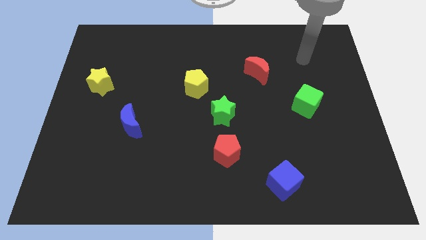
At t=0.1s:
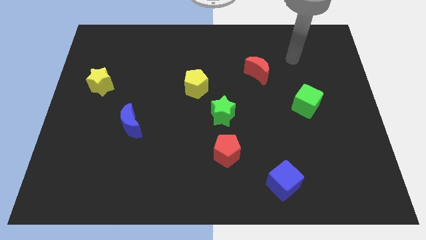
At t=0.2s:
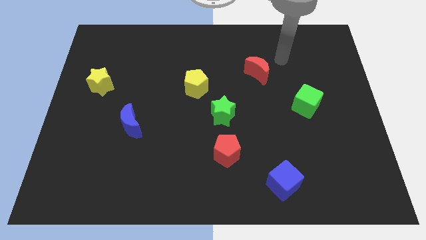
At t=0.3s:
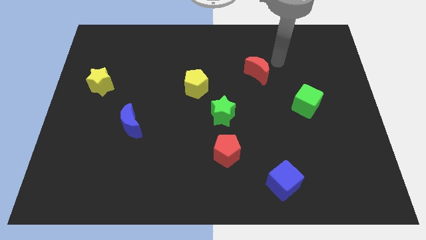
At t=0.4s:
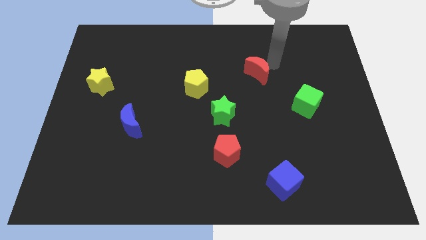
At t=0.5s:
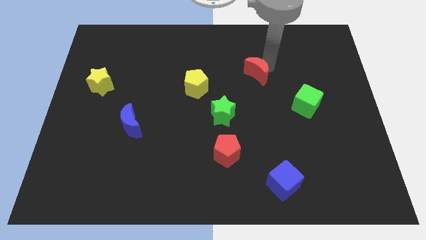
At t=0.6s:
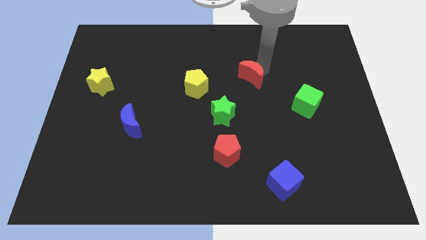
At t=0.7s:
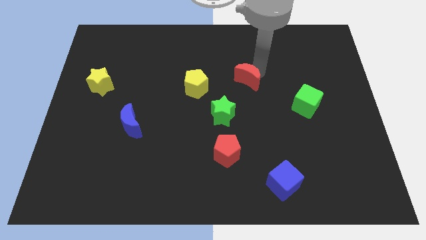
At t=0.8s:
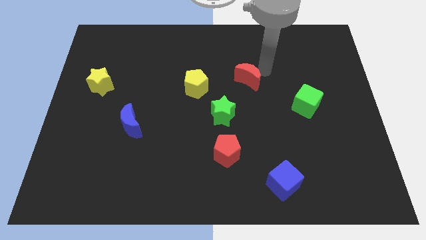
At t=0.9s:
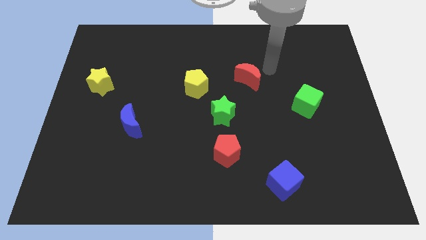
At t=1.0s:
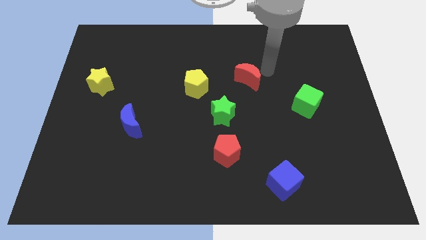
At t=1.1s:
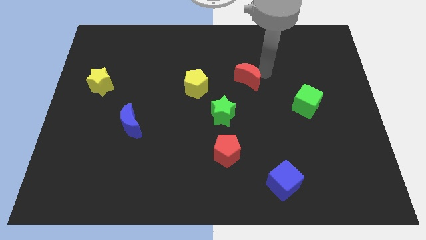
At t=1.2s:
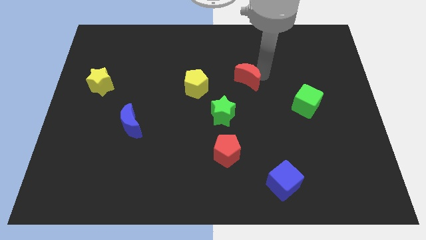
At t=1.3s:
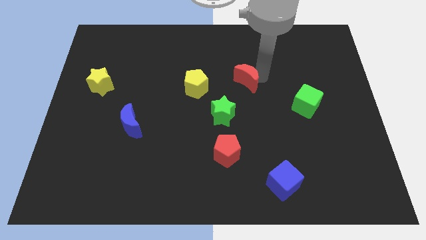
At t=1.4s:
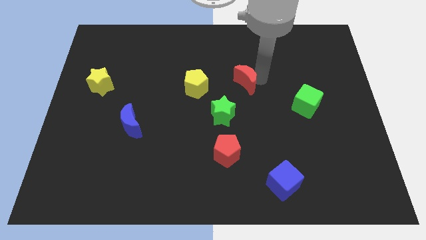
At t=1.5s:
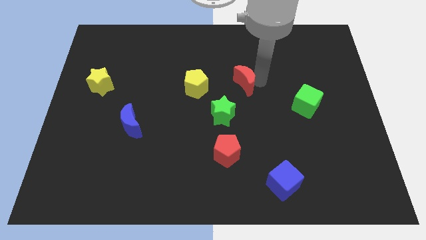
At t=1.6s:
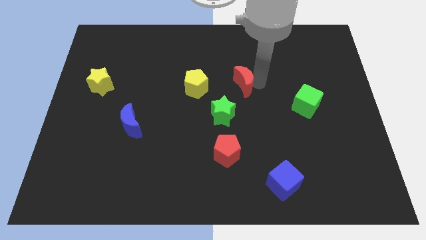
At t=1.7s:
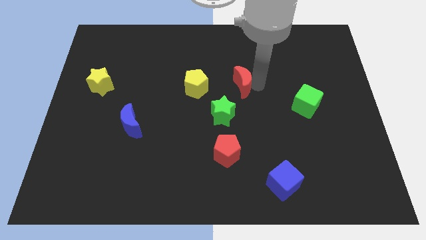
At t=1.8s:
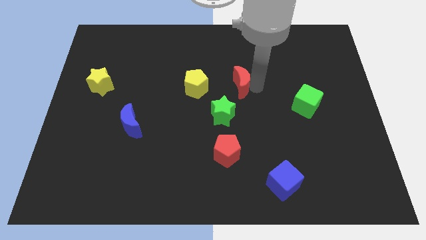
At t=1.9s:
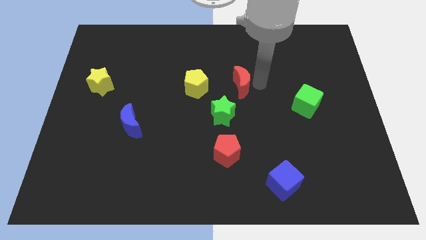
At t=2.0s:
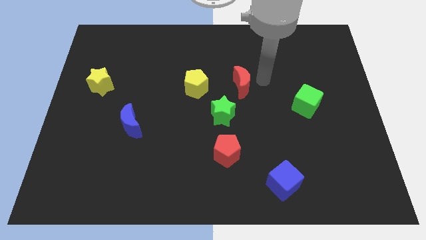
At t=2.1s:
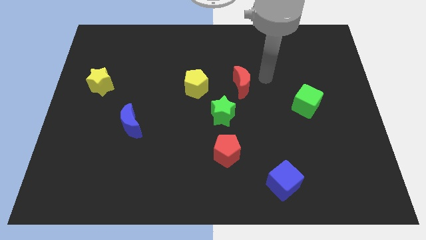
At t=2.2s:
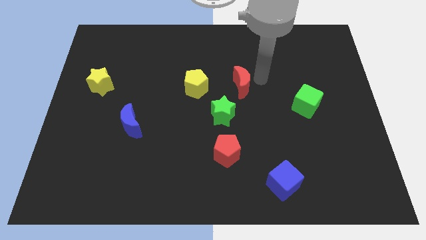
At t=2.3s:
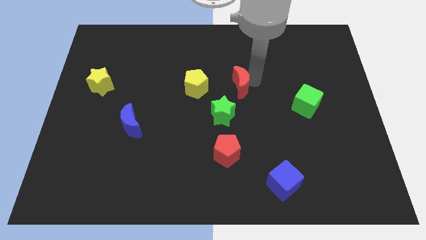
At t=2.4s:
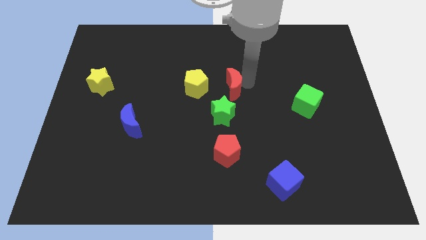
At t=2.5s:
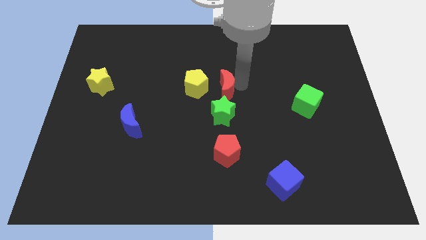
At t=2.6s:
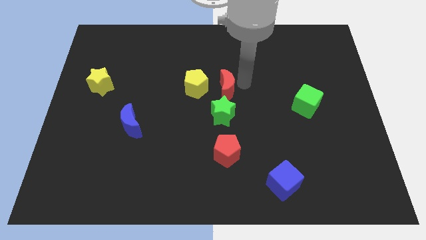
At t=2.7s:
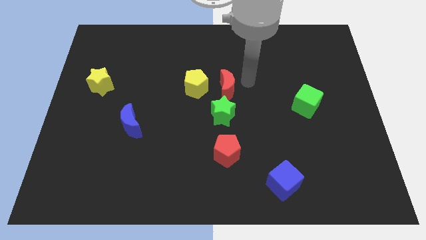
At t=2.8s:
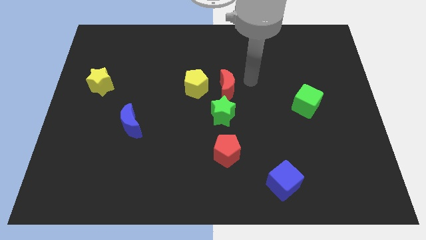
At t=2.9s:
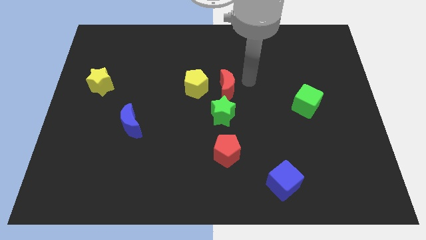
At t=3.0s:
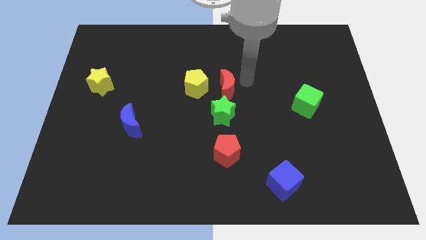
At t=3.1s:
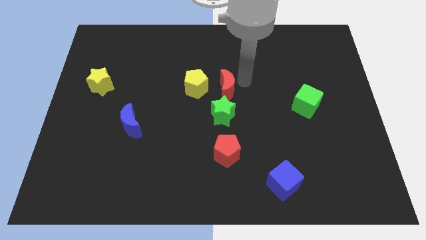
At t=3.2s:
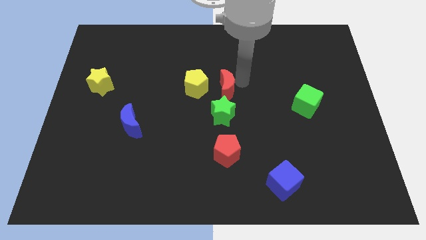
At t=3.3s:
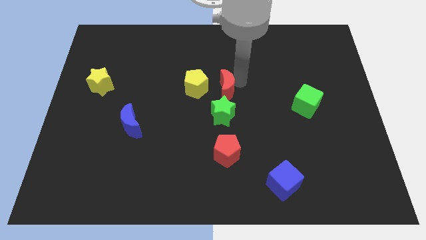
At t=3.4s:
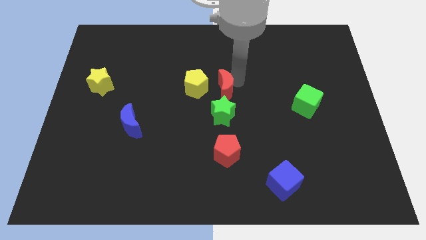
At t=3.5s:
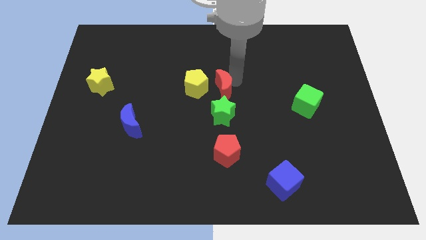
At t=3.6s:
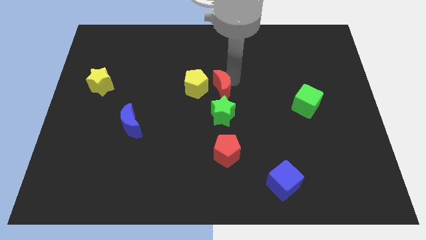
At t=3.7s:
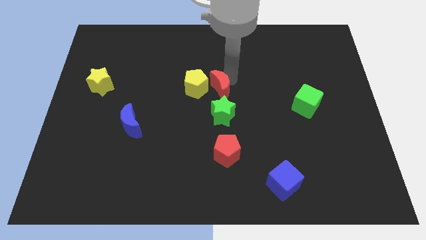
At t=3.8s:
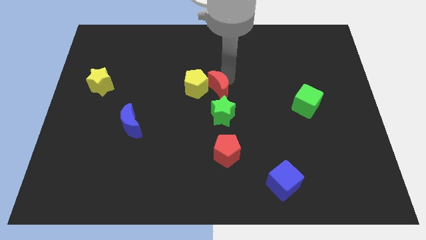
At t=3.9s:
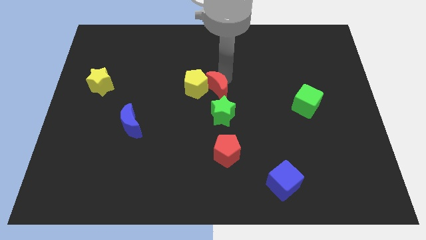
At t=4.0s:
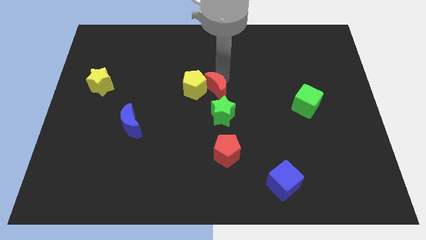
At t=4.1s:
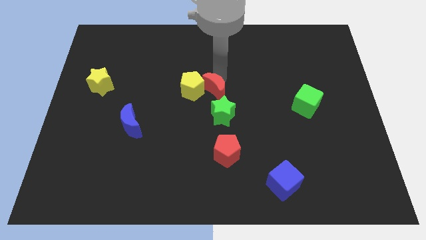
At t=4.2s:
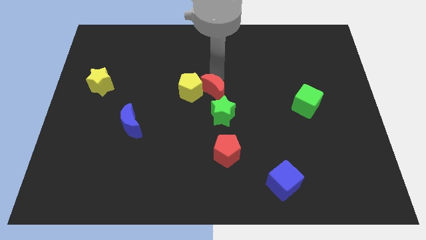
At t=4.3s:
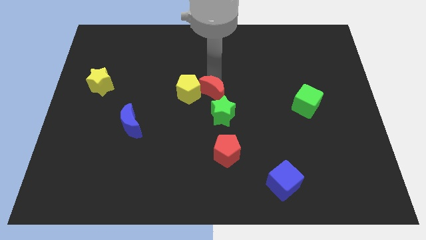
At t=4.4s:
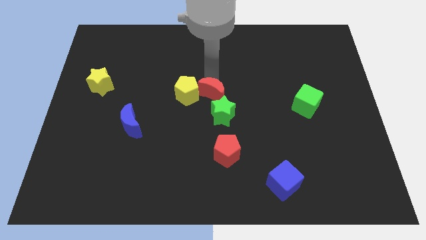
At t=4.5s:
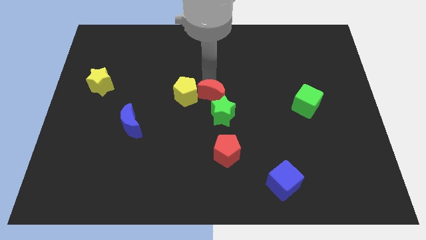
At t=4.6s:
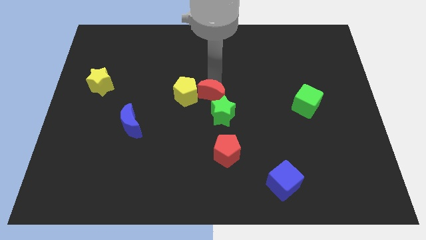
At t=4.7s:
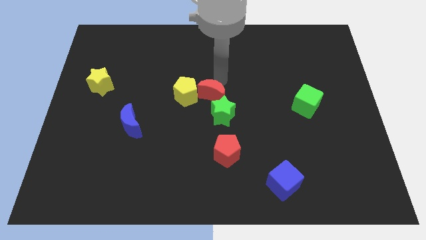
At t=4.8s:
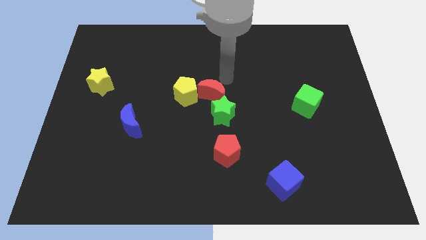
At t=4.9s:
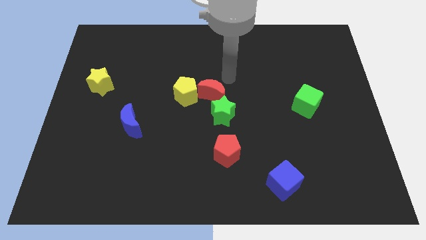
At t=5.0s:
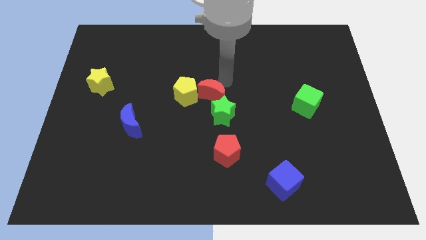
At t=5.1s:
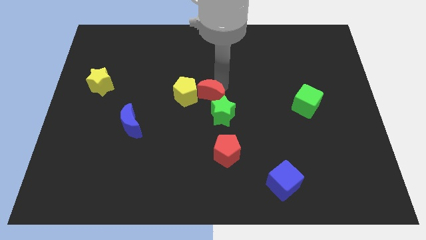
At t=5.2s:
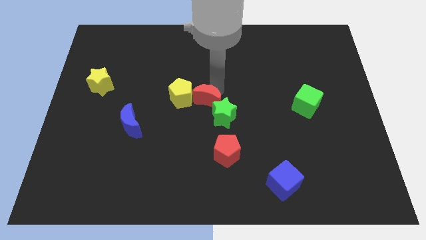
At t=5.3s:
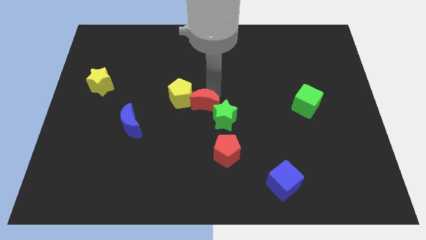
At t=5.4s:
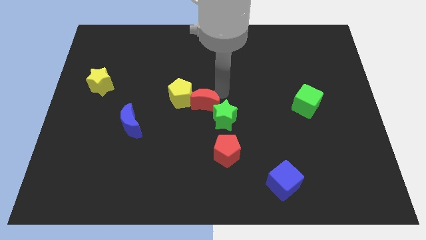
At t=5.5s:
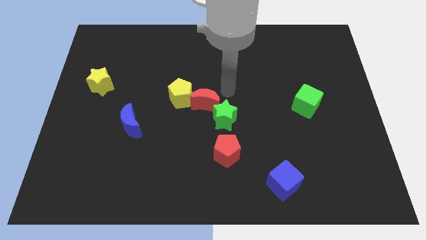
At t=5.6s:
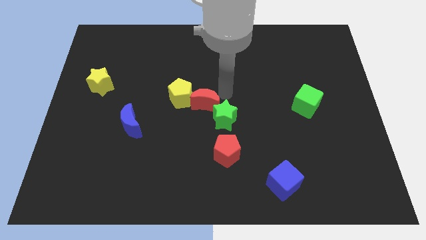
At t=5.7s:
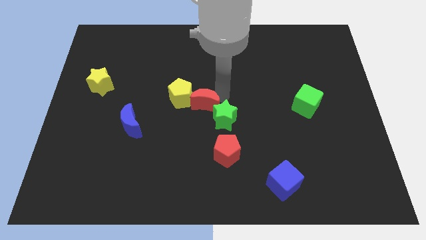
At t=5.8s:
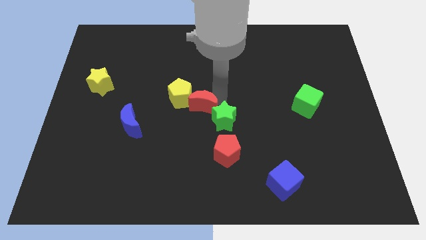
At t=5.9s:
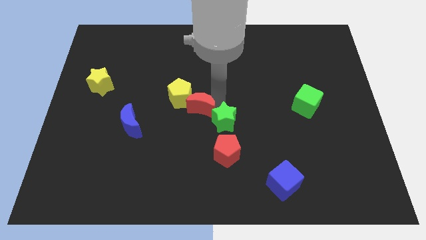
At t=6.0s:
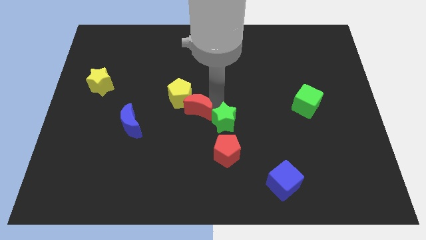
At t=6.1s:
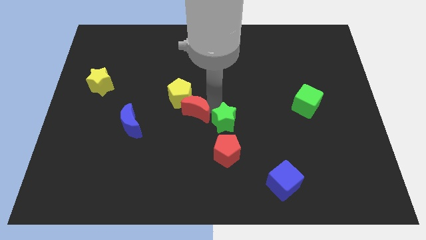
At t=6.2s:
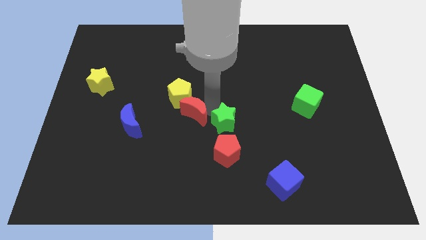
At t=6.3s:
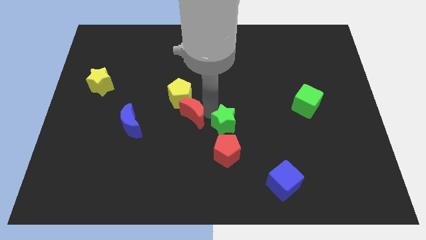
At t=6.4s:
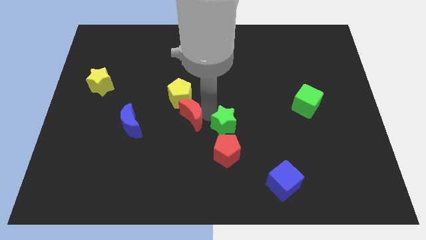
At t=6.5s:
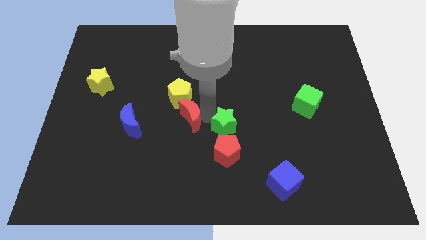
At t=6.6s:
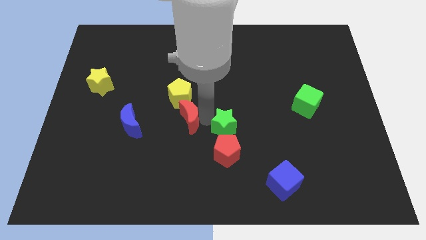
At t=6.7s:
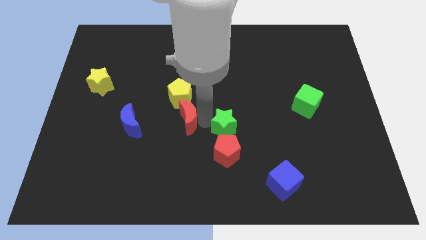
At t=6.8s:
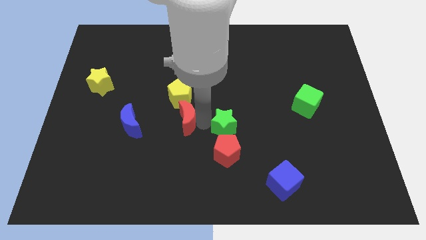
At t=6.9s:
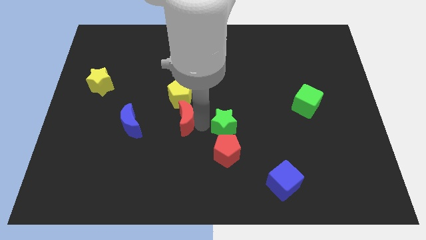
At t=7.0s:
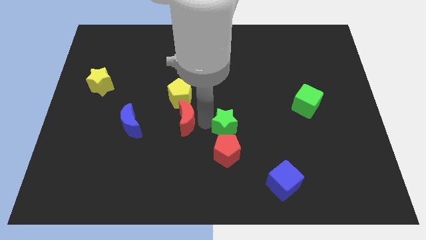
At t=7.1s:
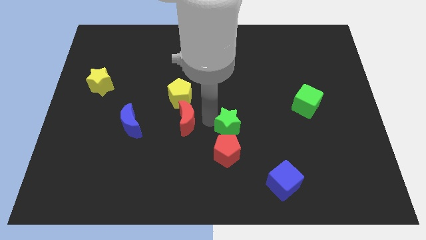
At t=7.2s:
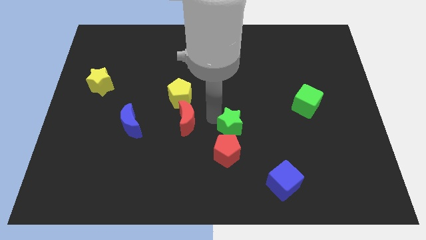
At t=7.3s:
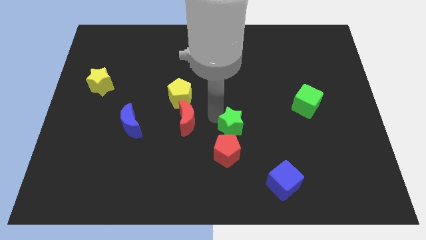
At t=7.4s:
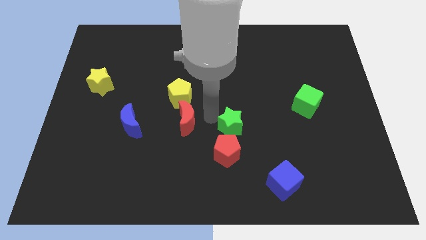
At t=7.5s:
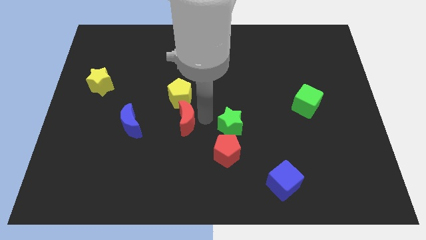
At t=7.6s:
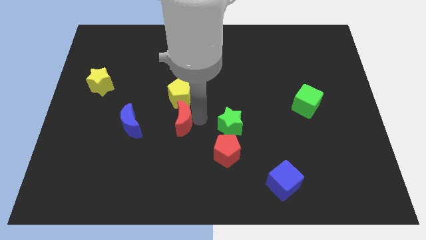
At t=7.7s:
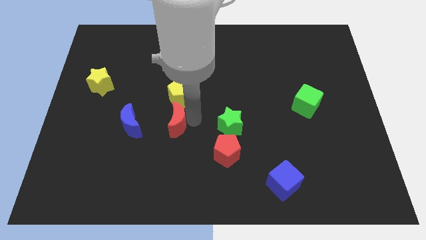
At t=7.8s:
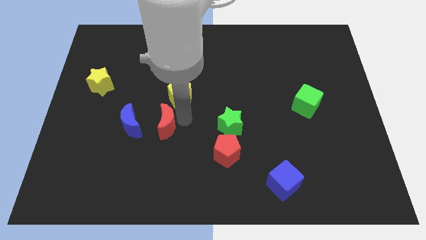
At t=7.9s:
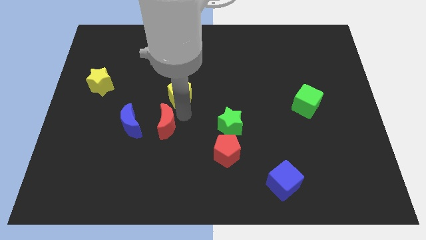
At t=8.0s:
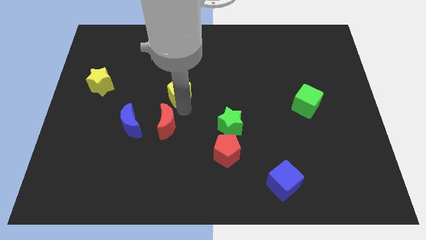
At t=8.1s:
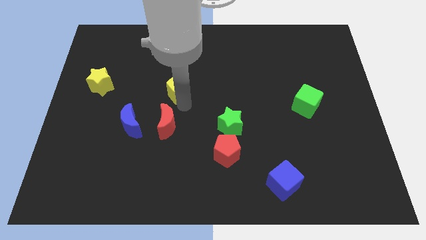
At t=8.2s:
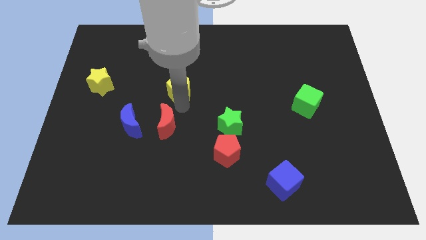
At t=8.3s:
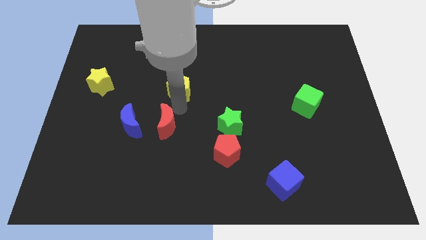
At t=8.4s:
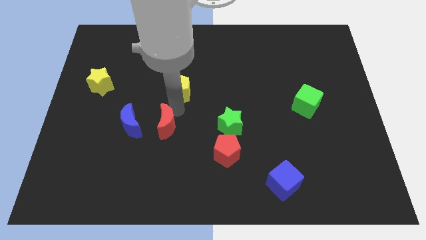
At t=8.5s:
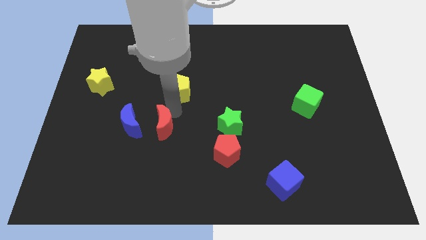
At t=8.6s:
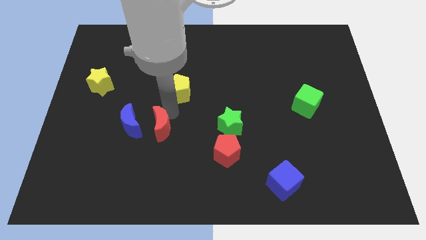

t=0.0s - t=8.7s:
put the red moon diagonally down and to the right of the blue moon
